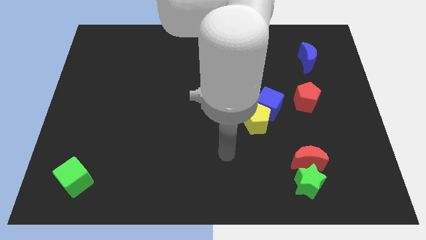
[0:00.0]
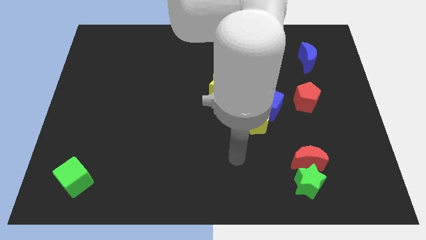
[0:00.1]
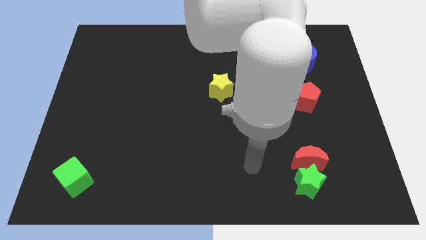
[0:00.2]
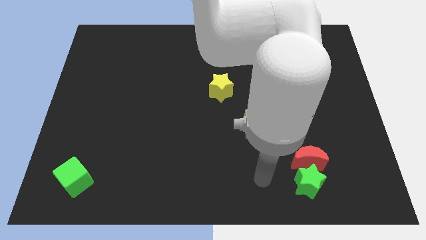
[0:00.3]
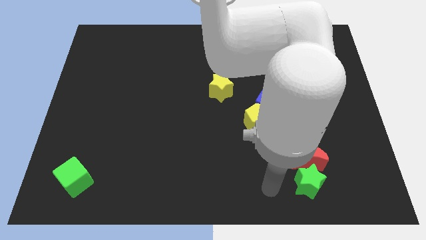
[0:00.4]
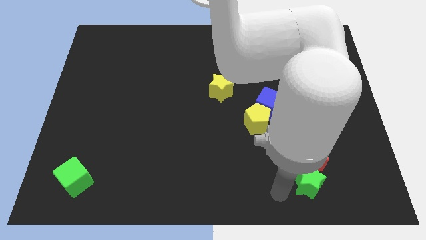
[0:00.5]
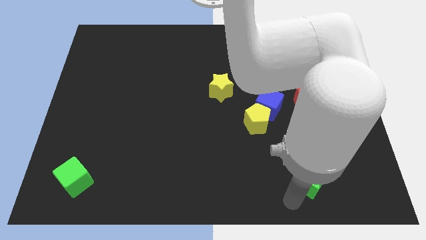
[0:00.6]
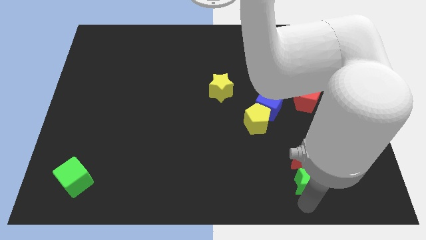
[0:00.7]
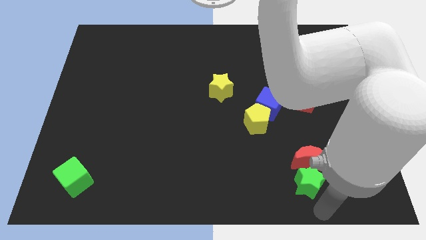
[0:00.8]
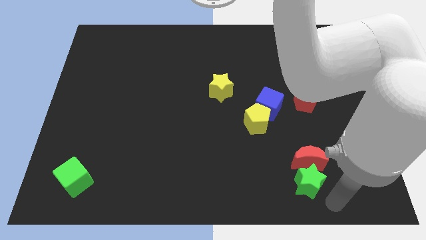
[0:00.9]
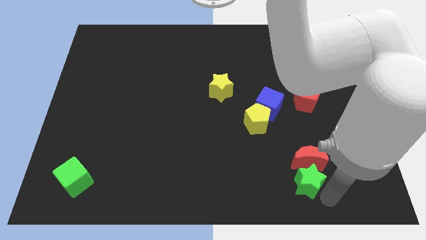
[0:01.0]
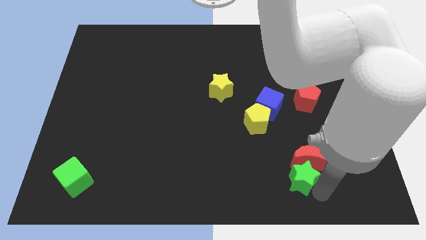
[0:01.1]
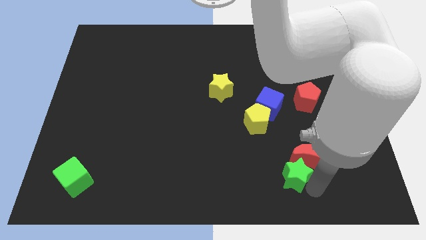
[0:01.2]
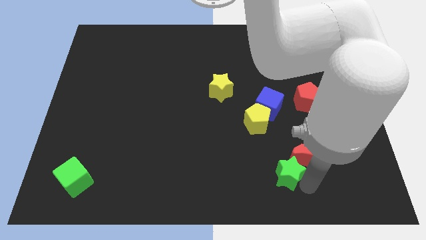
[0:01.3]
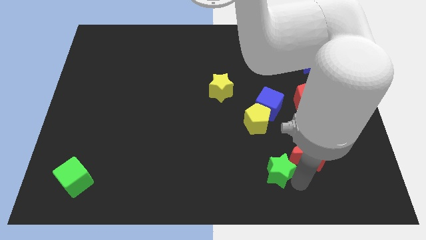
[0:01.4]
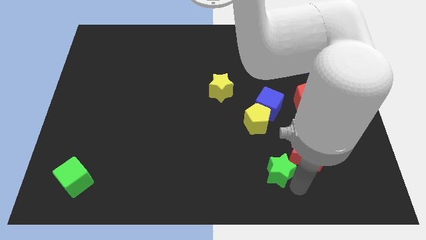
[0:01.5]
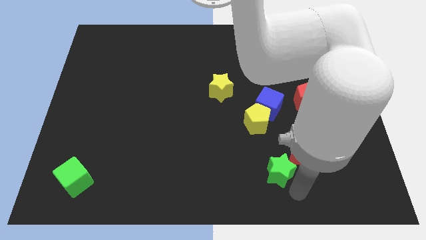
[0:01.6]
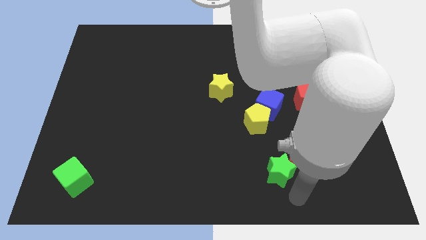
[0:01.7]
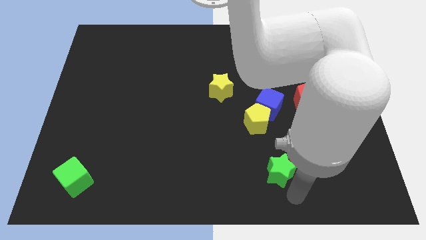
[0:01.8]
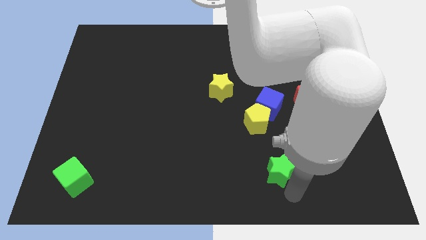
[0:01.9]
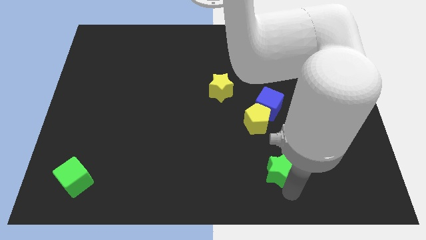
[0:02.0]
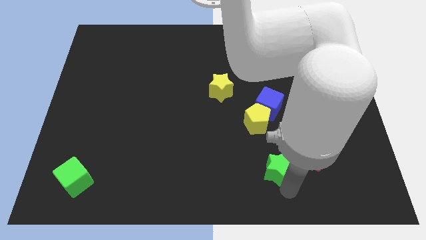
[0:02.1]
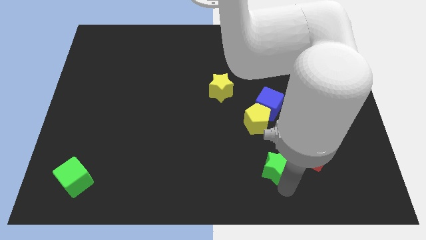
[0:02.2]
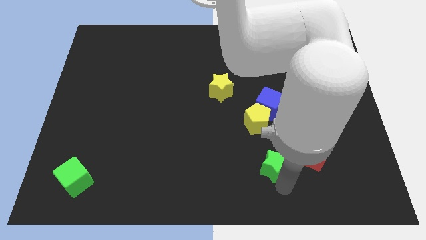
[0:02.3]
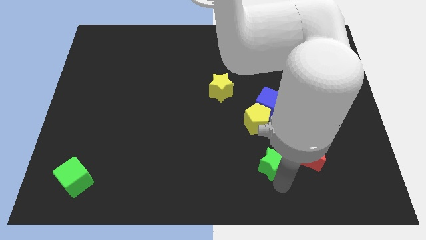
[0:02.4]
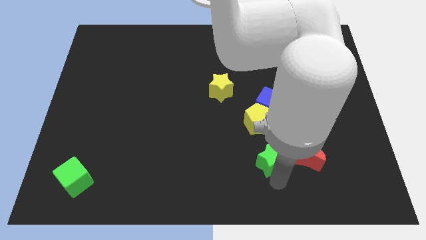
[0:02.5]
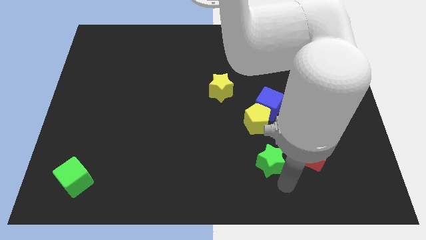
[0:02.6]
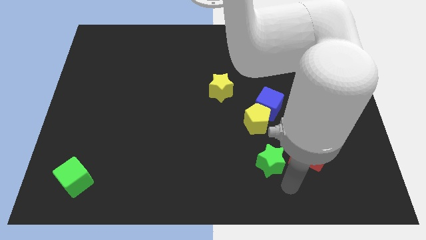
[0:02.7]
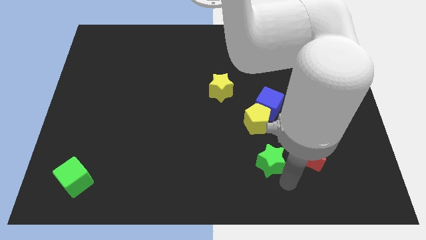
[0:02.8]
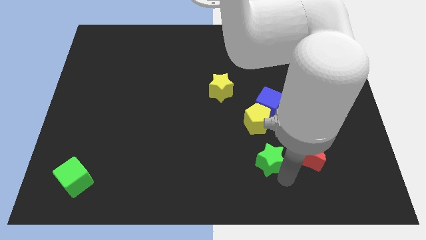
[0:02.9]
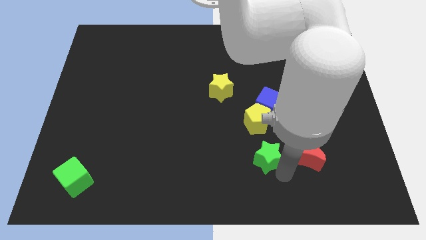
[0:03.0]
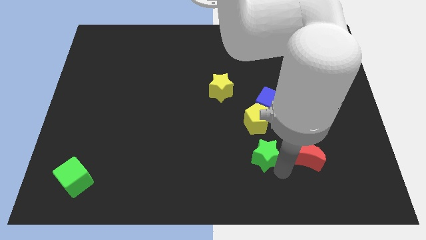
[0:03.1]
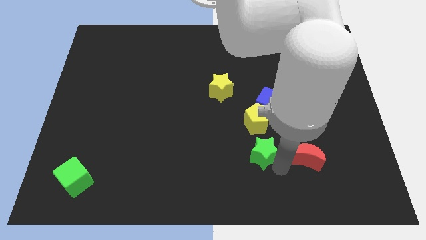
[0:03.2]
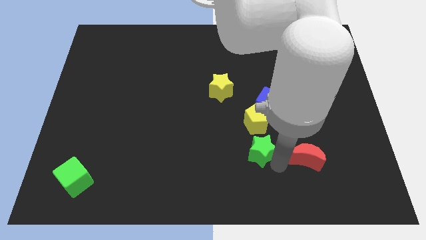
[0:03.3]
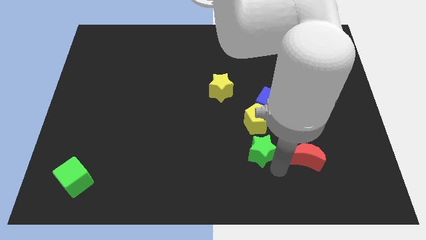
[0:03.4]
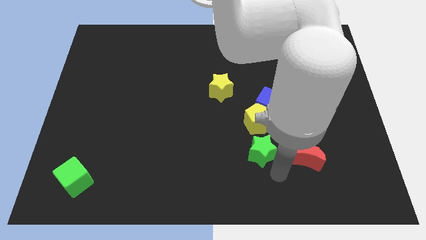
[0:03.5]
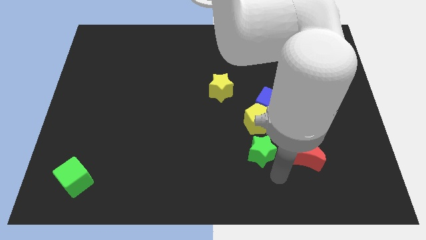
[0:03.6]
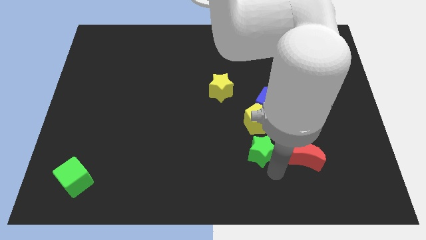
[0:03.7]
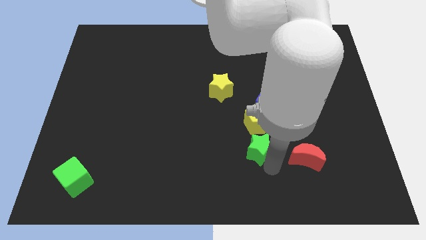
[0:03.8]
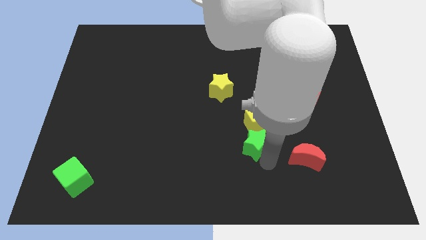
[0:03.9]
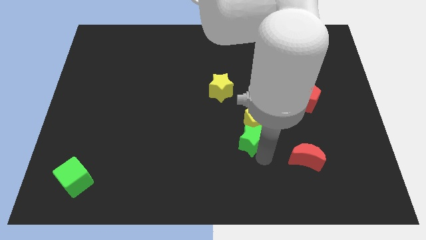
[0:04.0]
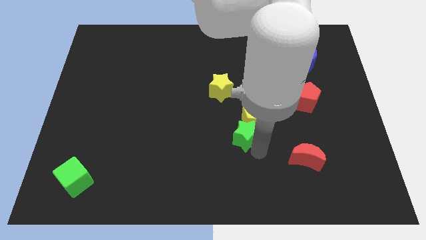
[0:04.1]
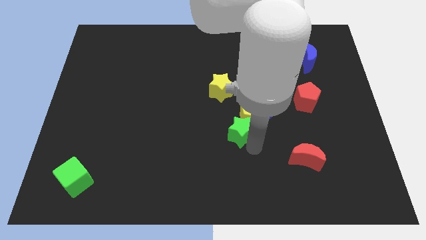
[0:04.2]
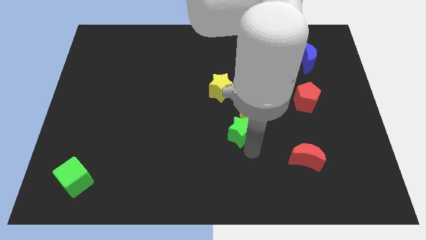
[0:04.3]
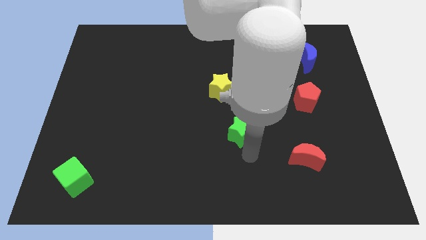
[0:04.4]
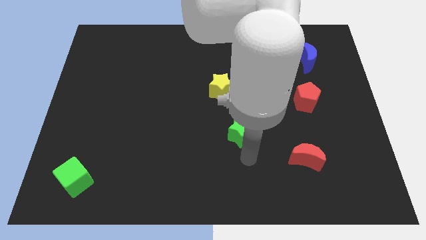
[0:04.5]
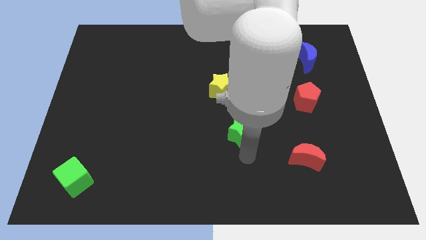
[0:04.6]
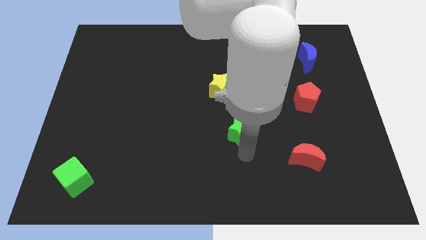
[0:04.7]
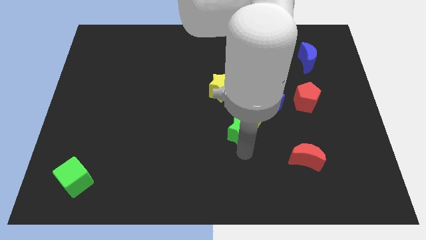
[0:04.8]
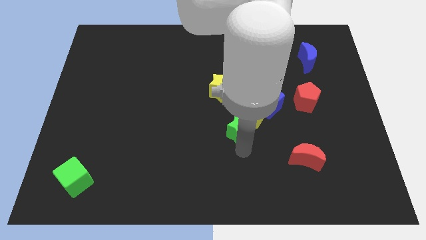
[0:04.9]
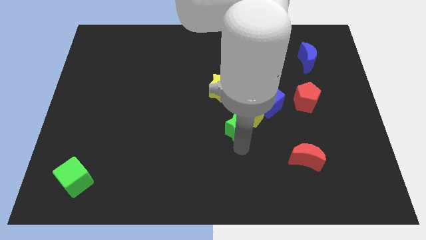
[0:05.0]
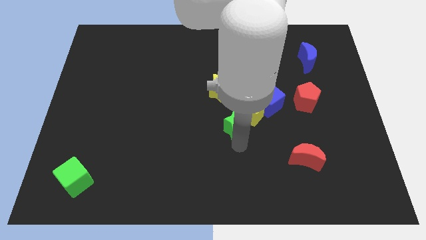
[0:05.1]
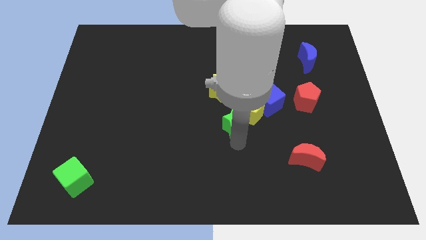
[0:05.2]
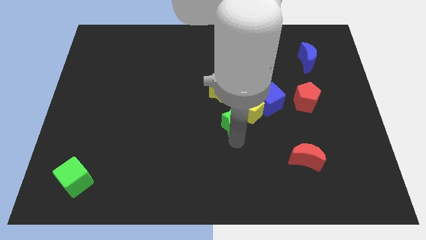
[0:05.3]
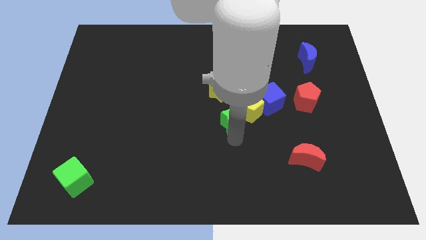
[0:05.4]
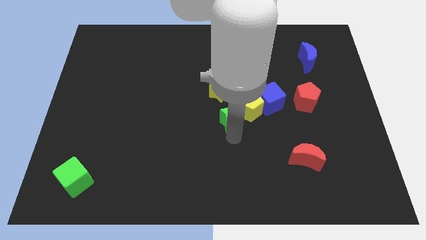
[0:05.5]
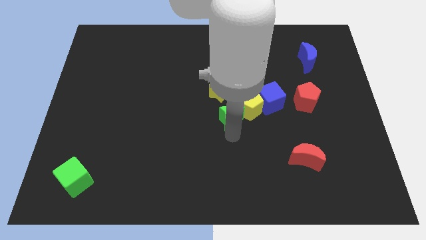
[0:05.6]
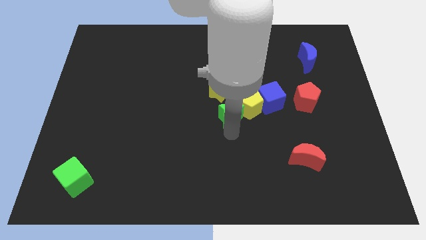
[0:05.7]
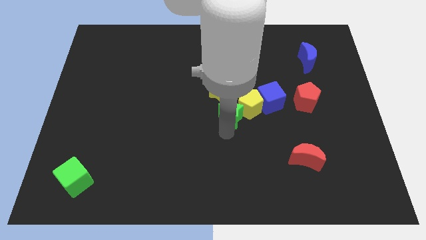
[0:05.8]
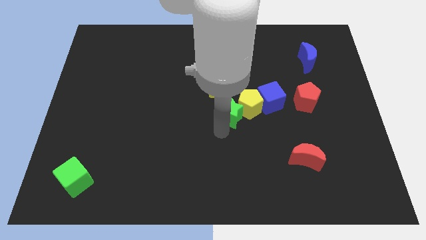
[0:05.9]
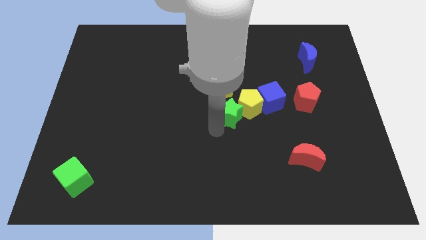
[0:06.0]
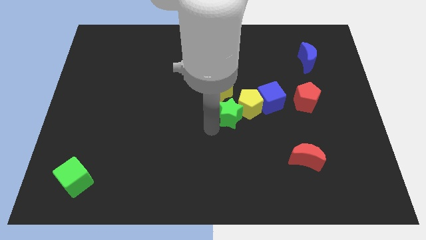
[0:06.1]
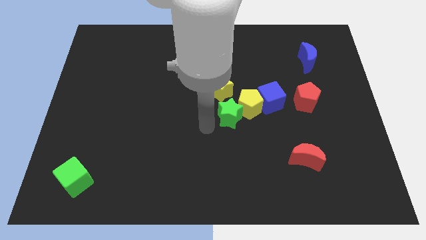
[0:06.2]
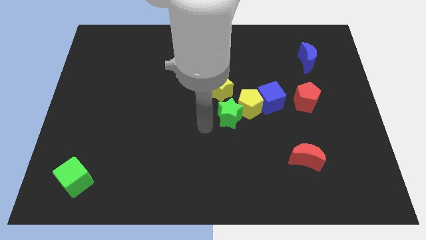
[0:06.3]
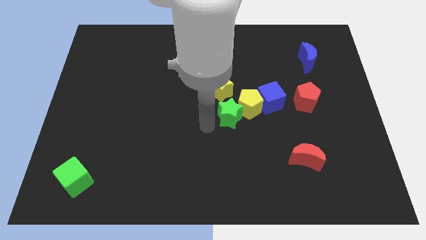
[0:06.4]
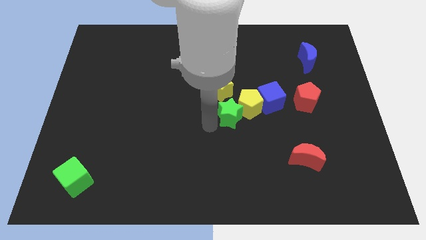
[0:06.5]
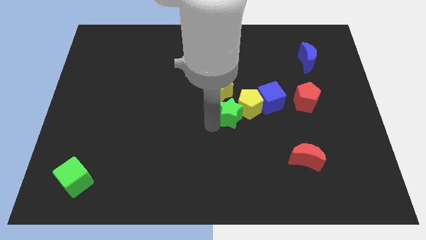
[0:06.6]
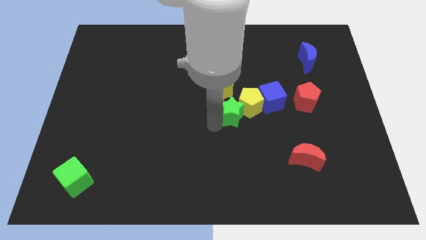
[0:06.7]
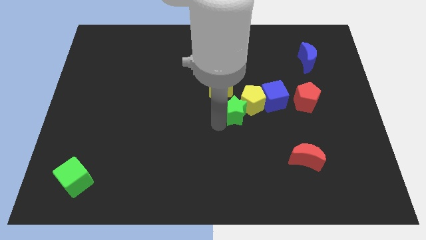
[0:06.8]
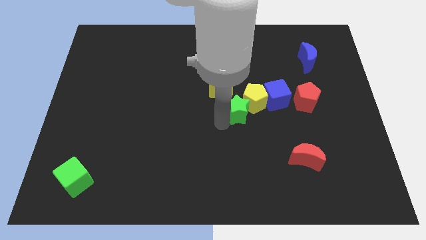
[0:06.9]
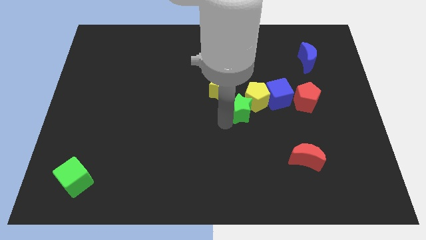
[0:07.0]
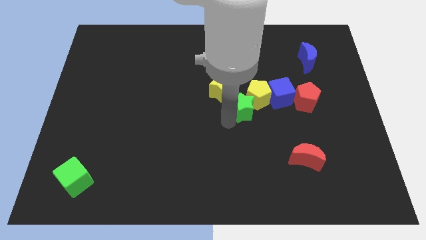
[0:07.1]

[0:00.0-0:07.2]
slide the green star to the left of the red pentagon
